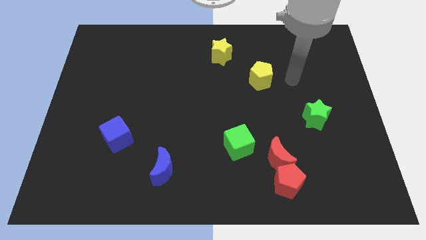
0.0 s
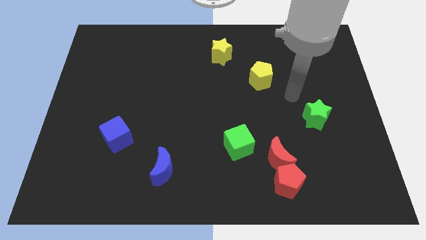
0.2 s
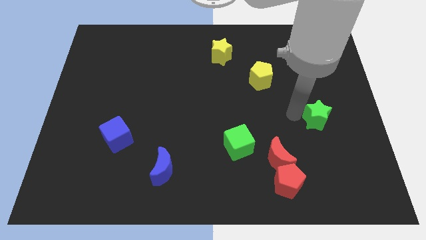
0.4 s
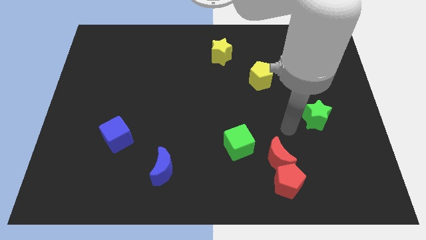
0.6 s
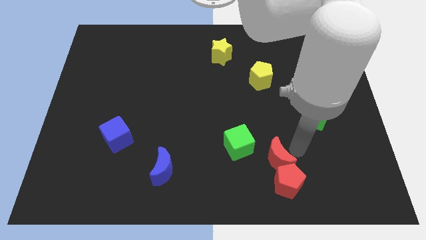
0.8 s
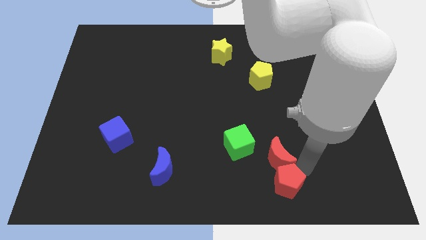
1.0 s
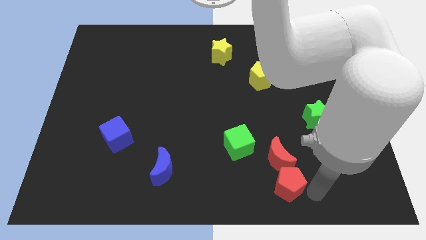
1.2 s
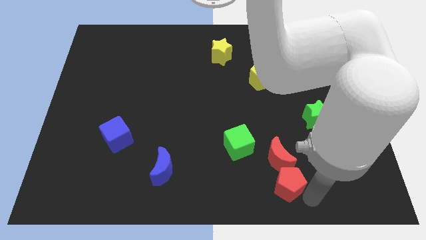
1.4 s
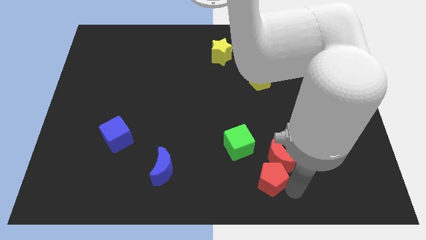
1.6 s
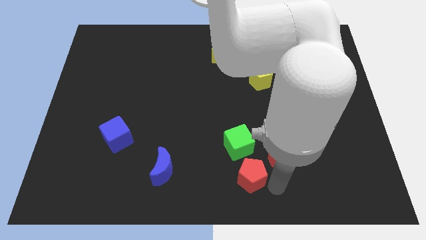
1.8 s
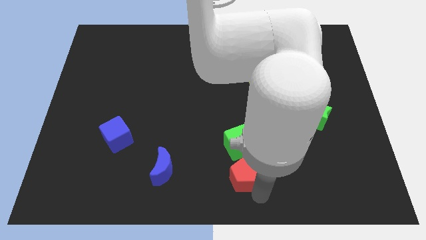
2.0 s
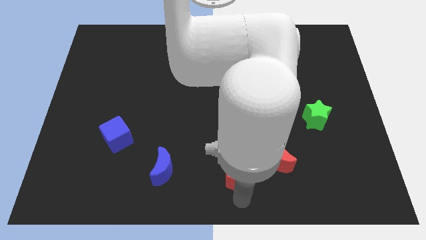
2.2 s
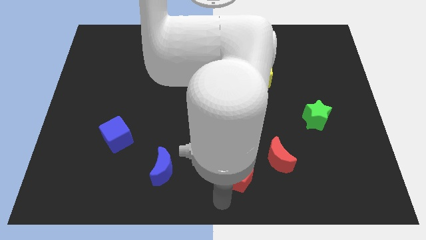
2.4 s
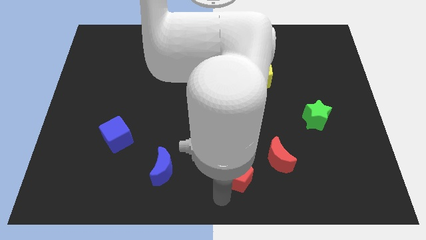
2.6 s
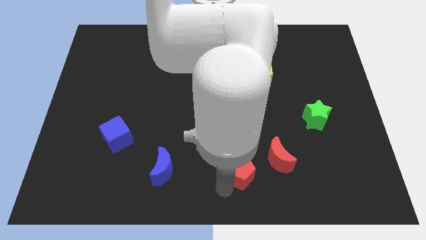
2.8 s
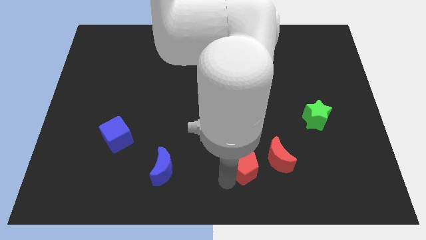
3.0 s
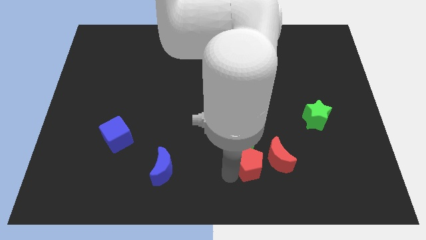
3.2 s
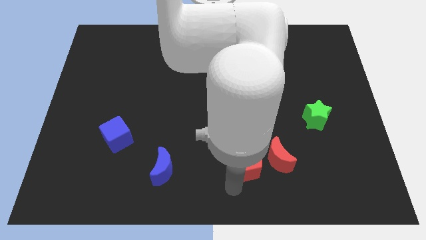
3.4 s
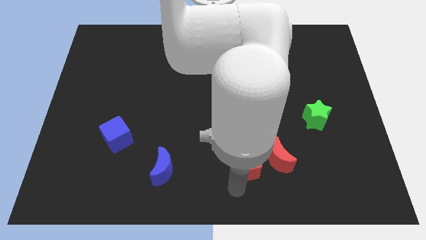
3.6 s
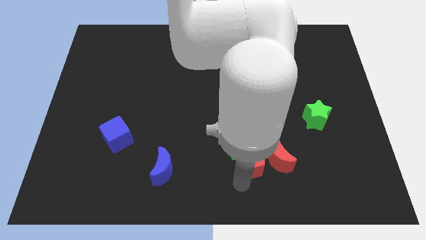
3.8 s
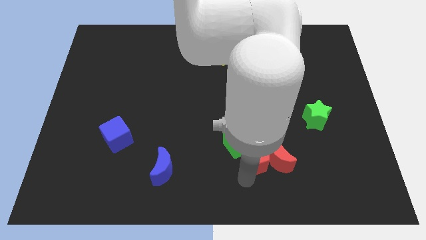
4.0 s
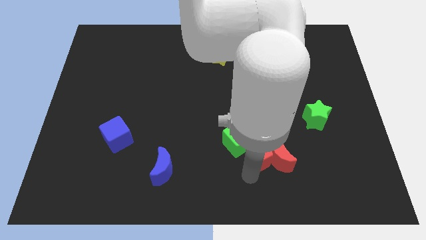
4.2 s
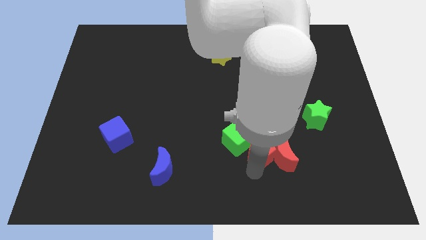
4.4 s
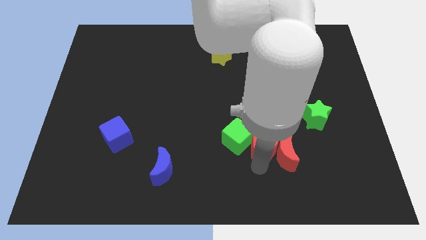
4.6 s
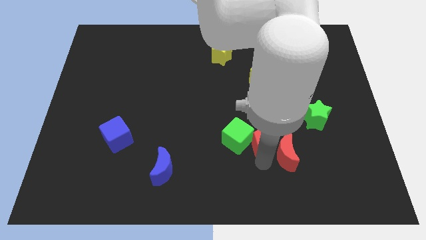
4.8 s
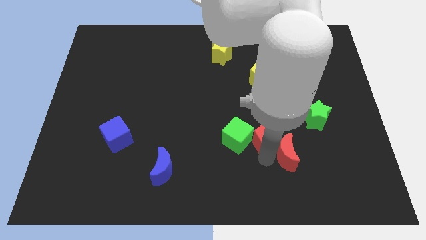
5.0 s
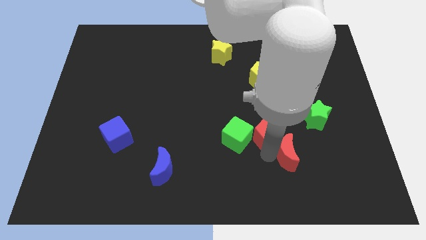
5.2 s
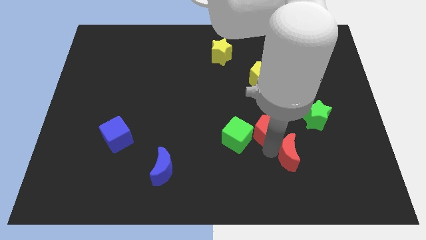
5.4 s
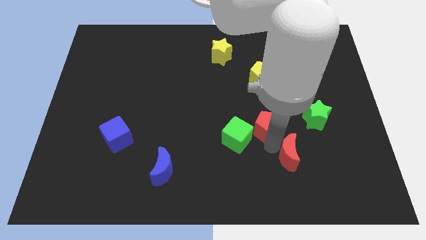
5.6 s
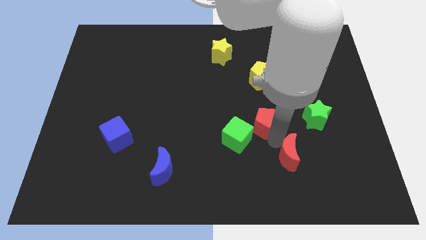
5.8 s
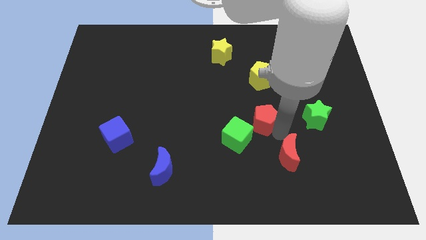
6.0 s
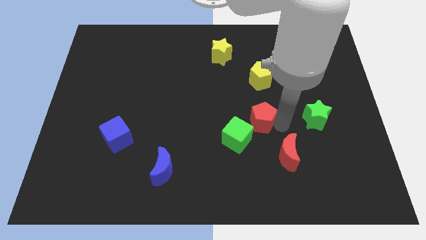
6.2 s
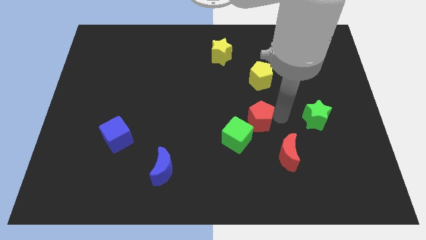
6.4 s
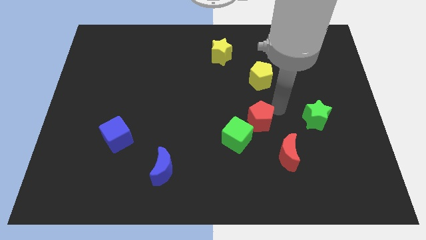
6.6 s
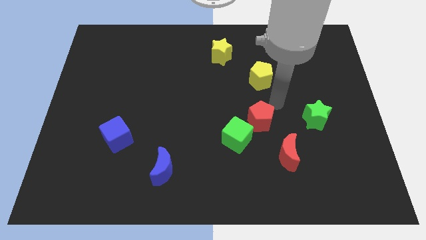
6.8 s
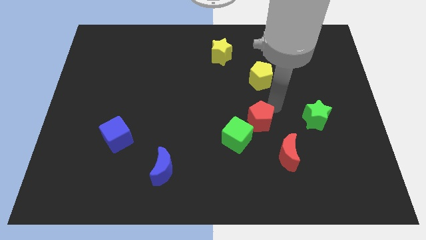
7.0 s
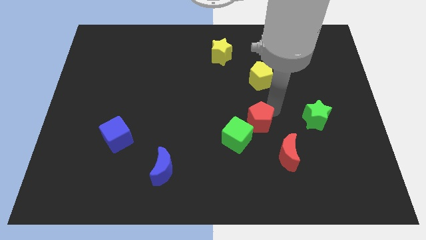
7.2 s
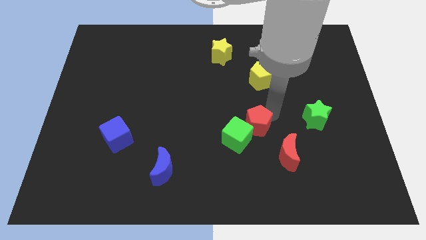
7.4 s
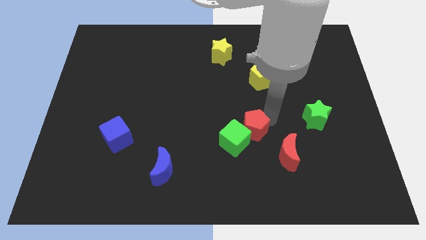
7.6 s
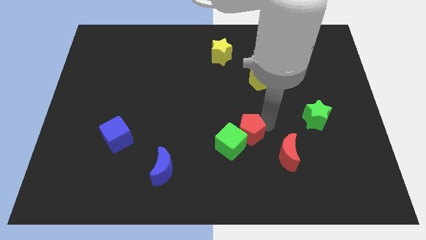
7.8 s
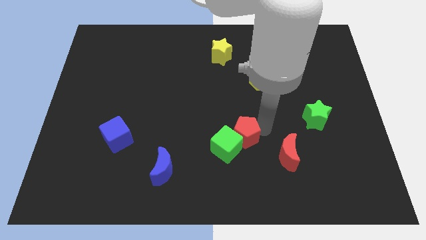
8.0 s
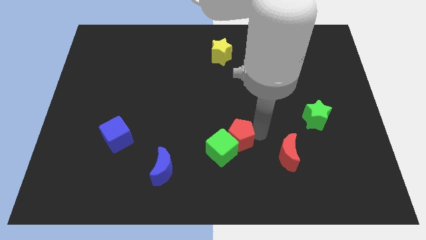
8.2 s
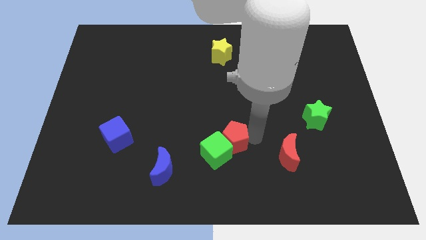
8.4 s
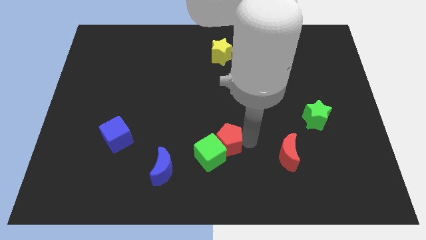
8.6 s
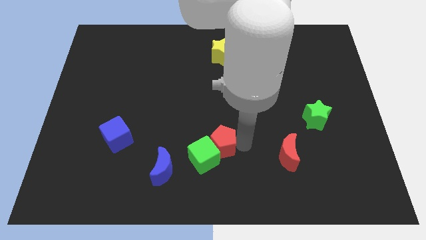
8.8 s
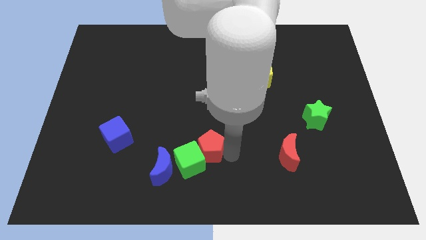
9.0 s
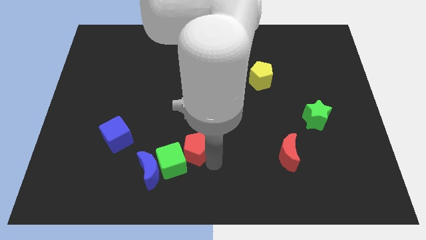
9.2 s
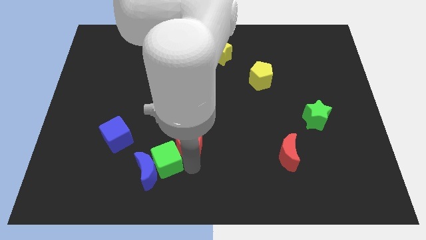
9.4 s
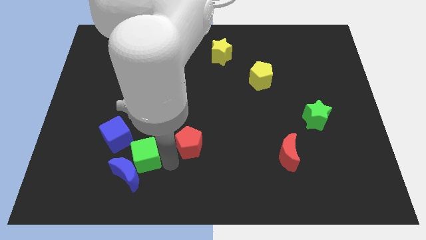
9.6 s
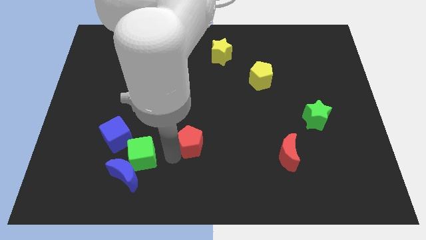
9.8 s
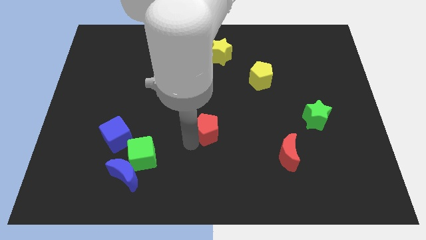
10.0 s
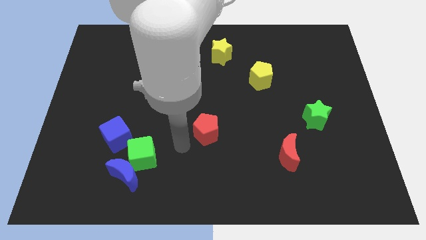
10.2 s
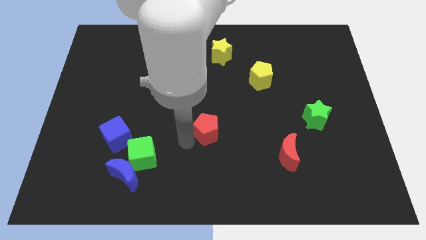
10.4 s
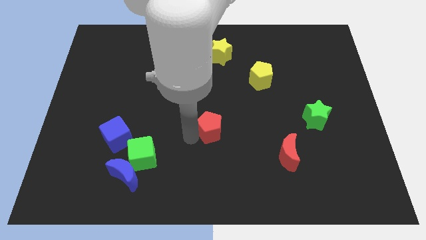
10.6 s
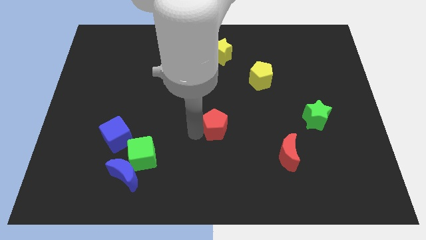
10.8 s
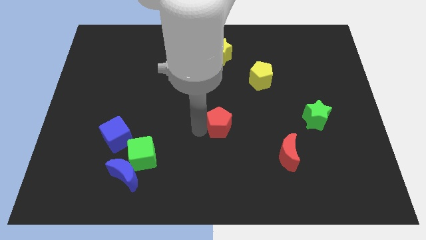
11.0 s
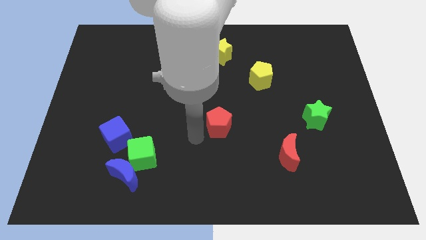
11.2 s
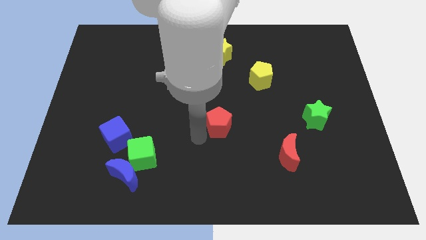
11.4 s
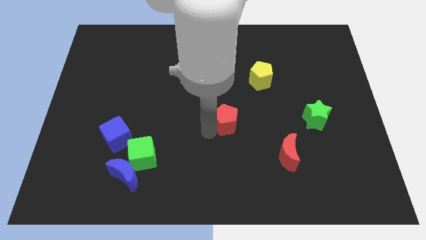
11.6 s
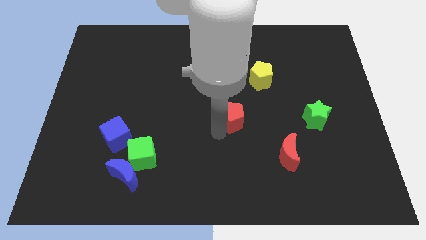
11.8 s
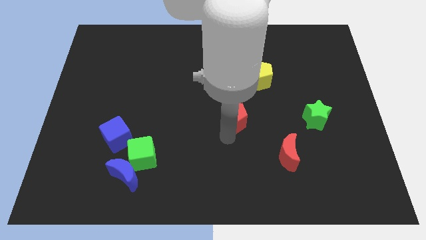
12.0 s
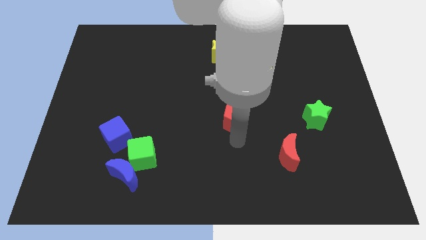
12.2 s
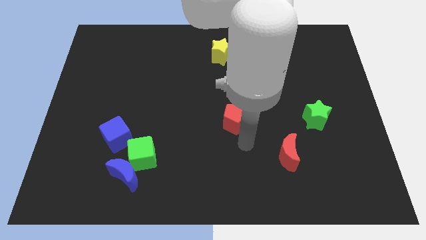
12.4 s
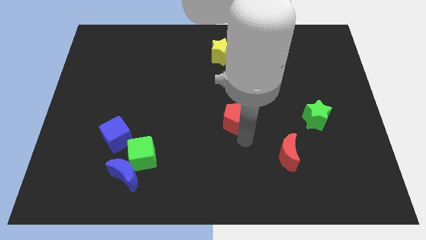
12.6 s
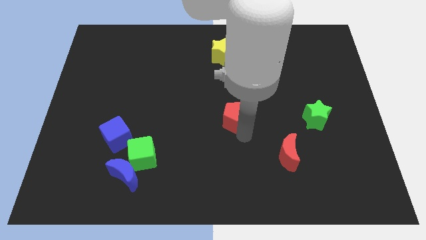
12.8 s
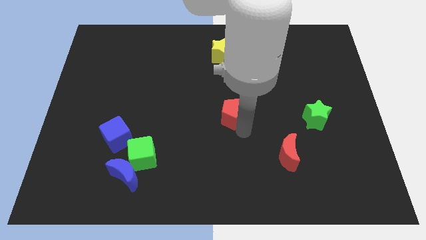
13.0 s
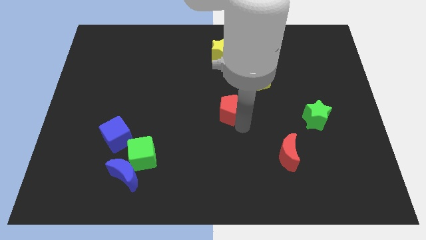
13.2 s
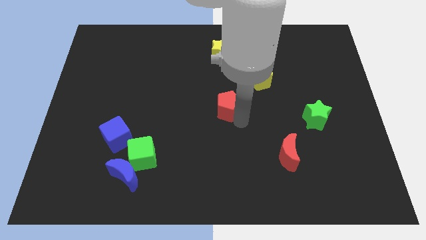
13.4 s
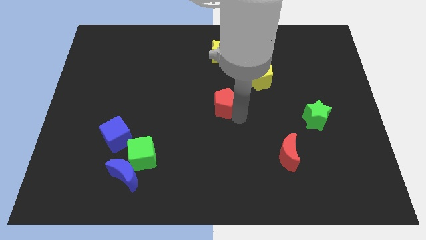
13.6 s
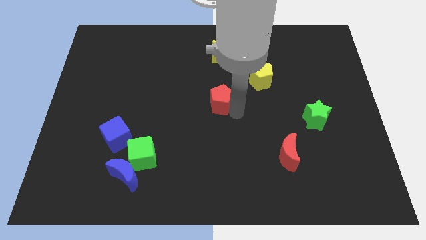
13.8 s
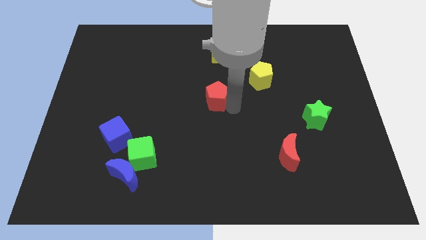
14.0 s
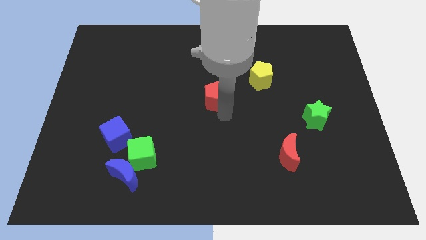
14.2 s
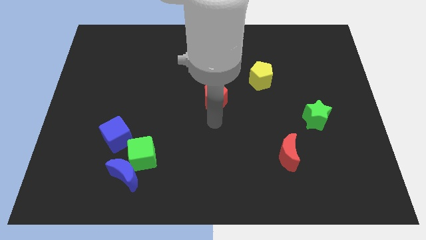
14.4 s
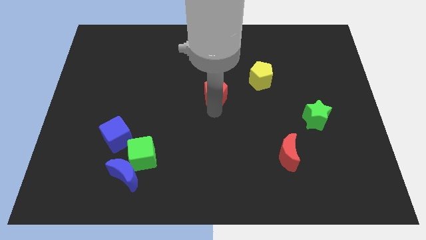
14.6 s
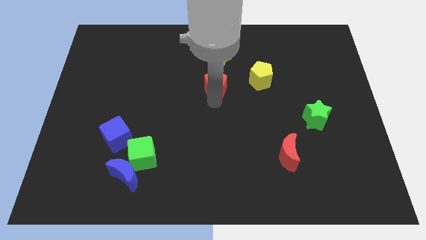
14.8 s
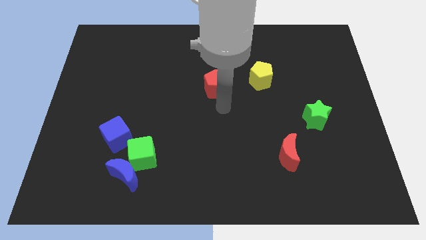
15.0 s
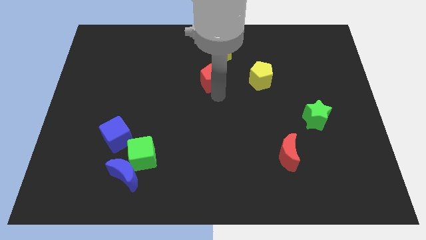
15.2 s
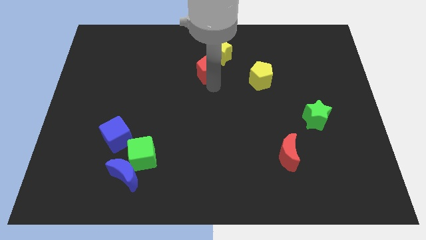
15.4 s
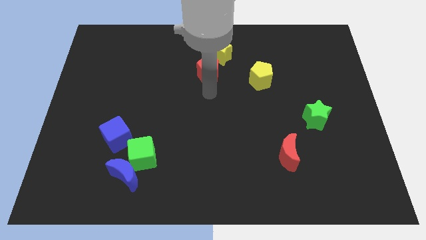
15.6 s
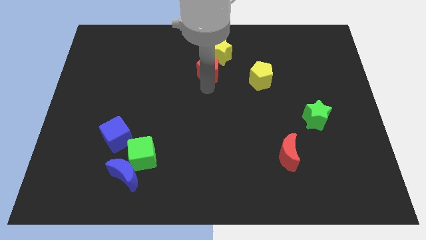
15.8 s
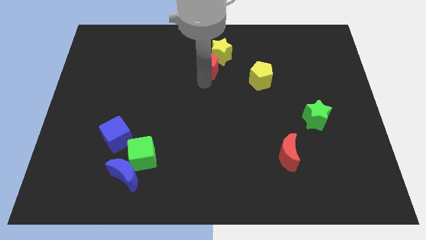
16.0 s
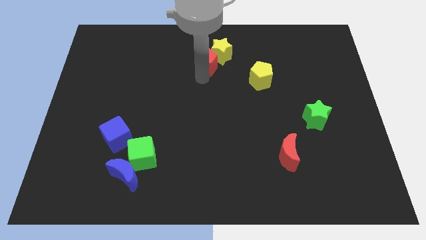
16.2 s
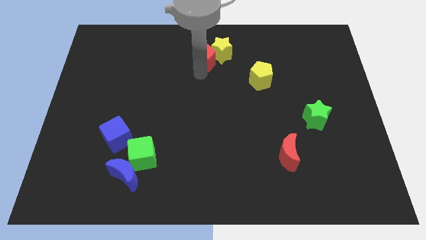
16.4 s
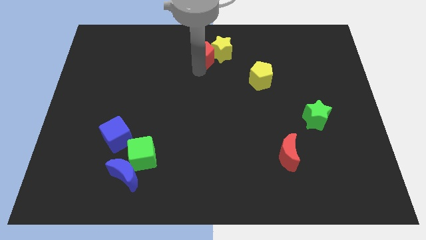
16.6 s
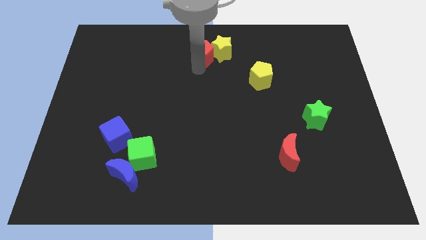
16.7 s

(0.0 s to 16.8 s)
slide the red pentagon to the towards your base
